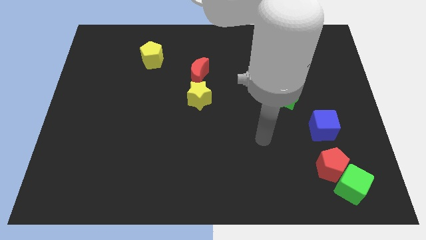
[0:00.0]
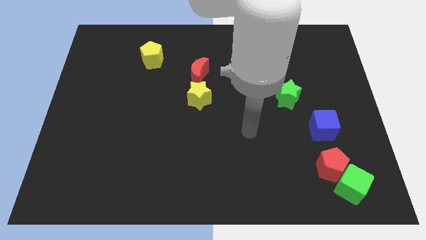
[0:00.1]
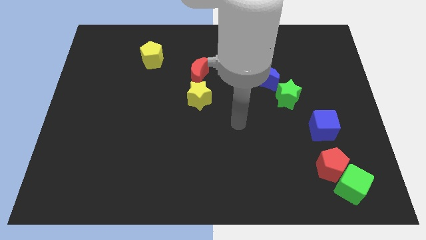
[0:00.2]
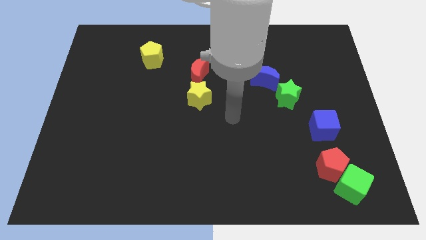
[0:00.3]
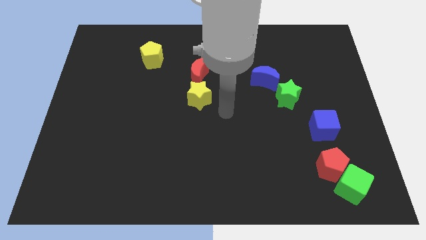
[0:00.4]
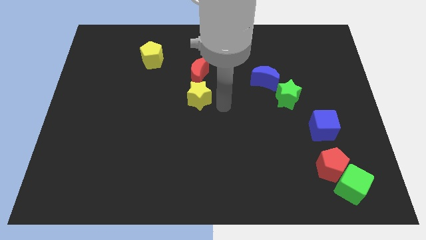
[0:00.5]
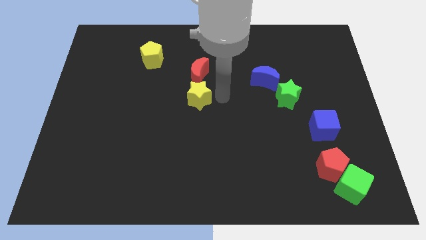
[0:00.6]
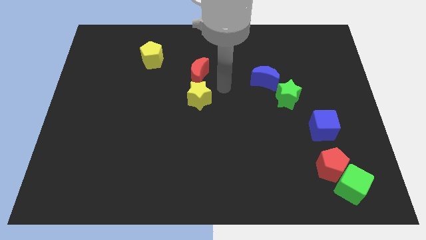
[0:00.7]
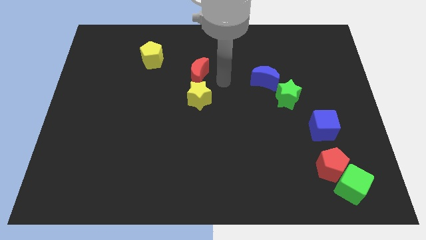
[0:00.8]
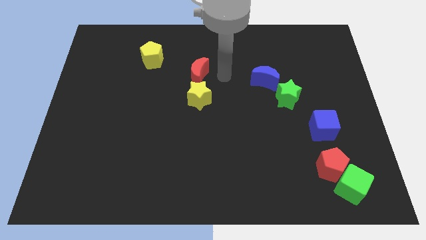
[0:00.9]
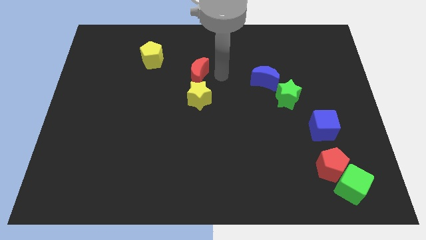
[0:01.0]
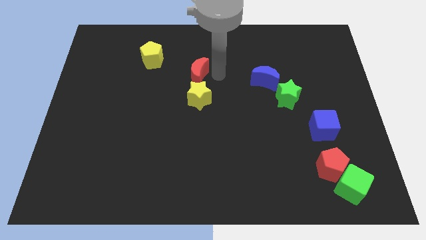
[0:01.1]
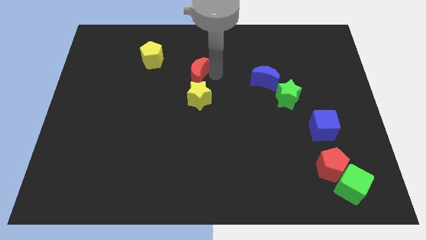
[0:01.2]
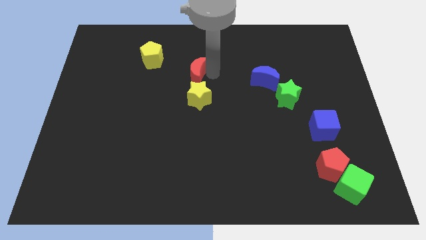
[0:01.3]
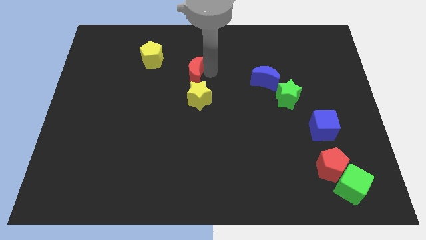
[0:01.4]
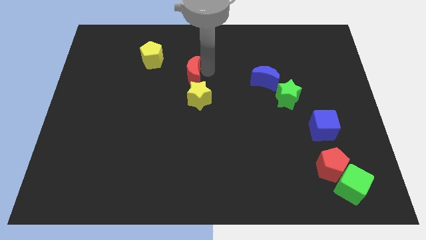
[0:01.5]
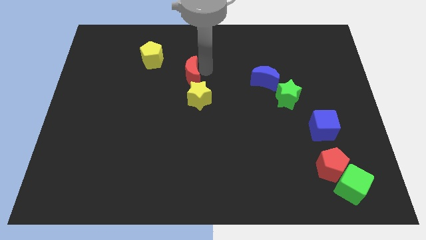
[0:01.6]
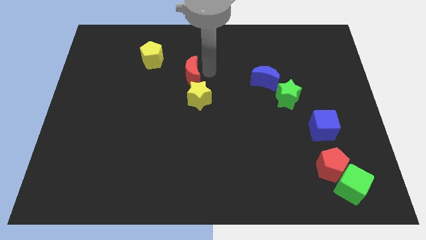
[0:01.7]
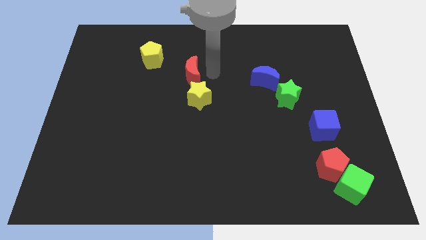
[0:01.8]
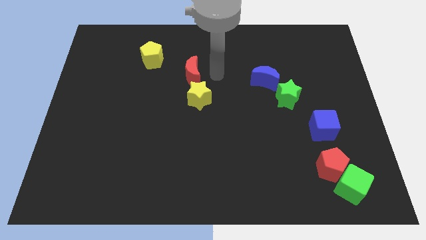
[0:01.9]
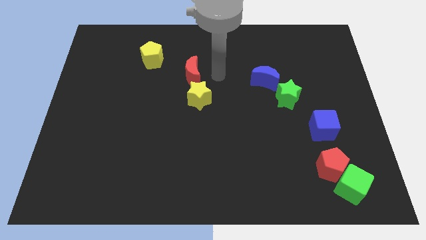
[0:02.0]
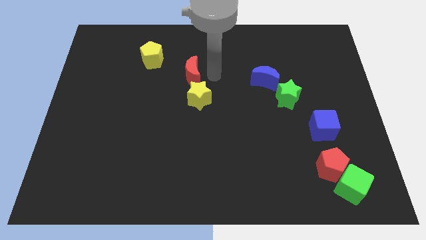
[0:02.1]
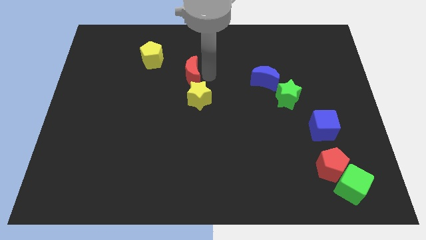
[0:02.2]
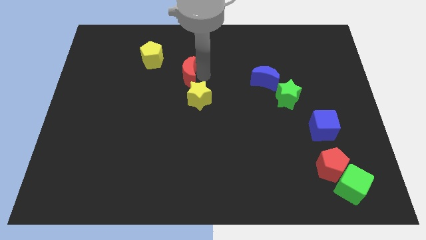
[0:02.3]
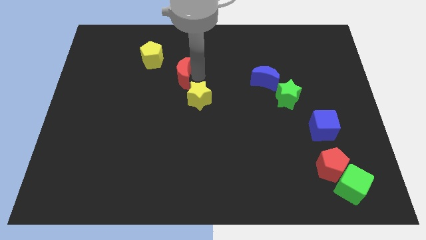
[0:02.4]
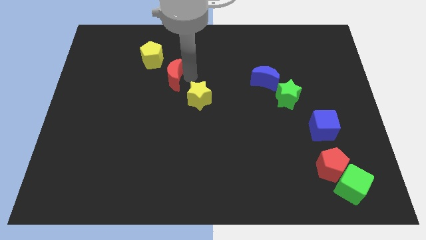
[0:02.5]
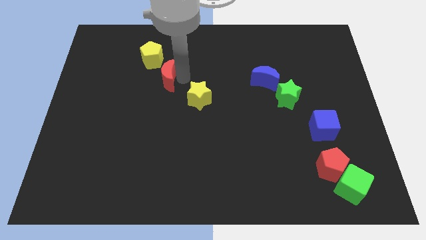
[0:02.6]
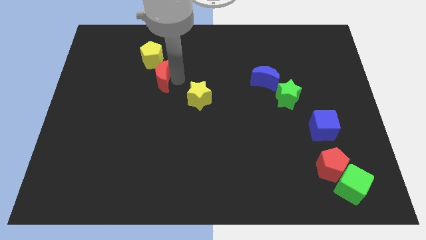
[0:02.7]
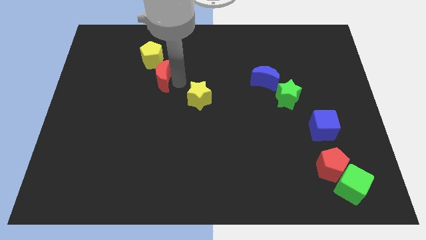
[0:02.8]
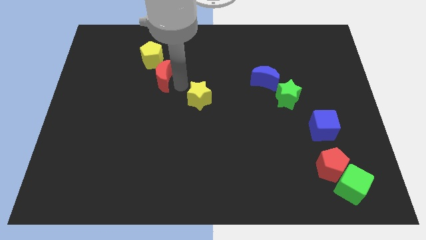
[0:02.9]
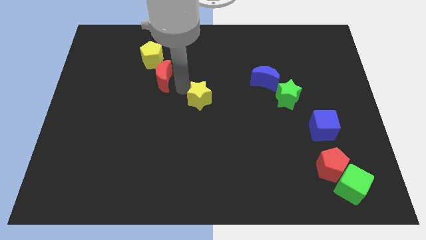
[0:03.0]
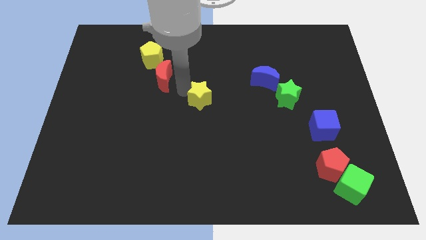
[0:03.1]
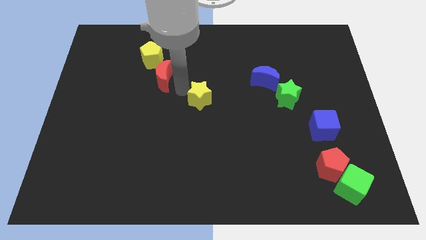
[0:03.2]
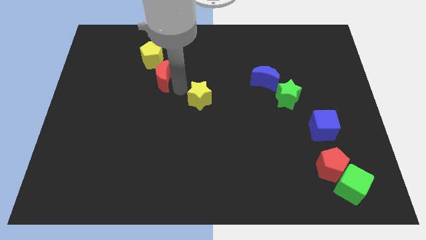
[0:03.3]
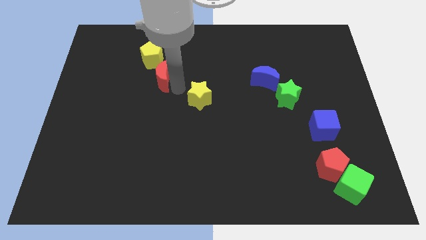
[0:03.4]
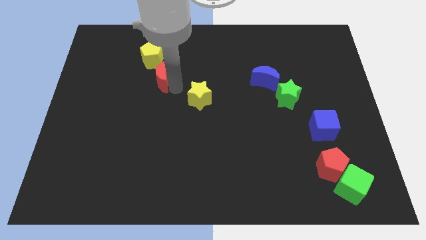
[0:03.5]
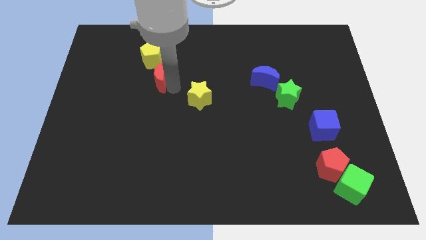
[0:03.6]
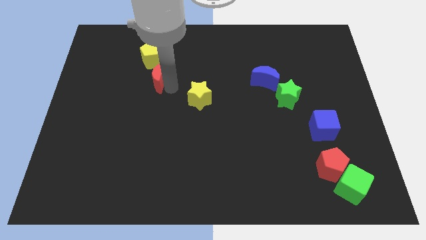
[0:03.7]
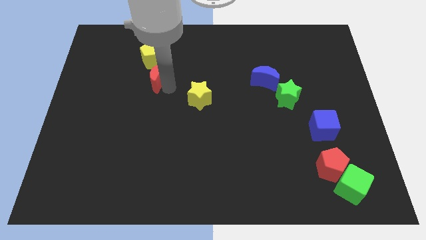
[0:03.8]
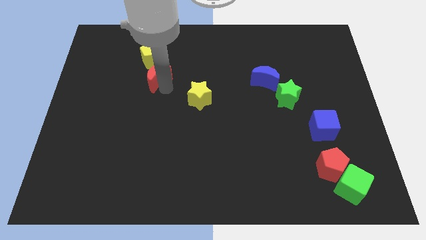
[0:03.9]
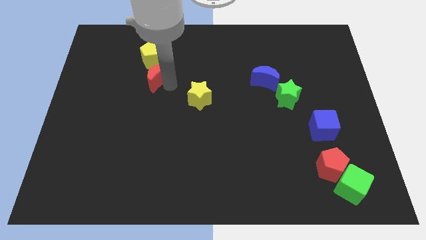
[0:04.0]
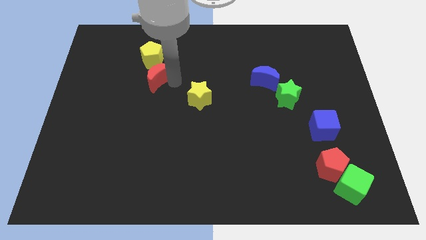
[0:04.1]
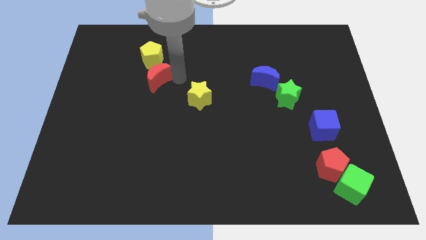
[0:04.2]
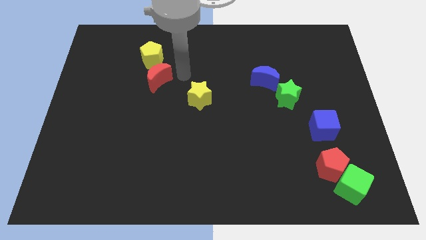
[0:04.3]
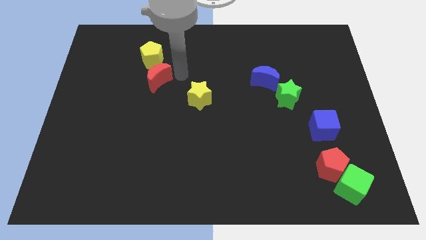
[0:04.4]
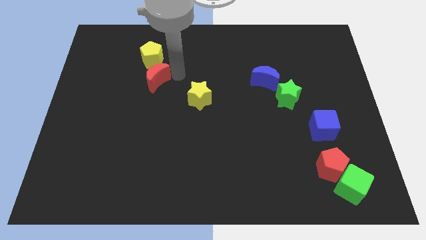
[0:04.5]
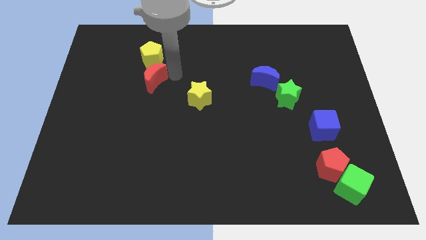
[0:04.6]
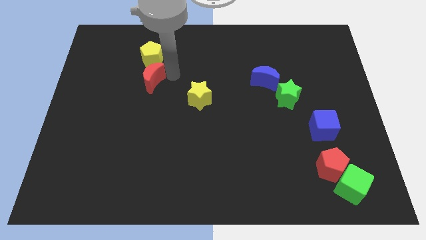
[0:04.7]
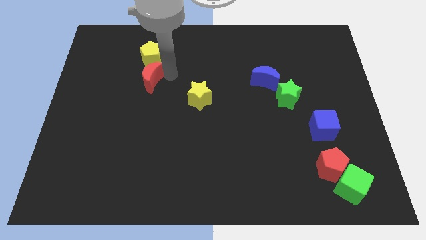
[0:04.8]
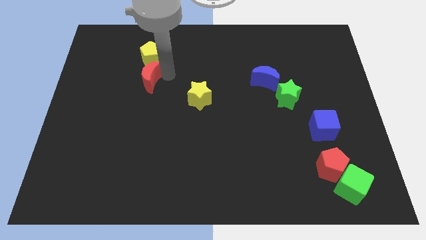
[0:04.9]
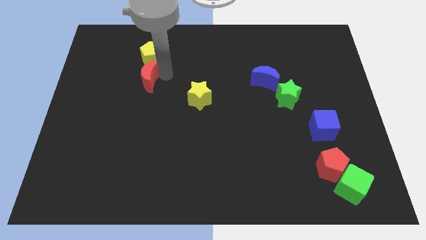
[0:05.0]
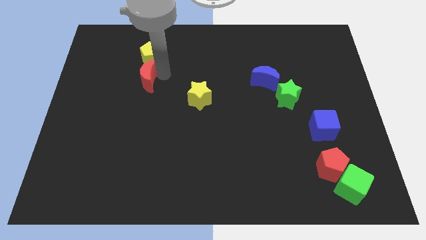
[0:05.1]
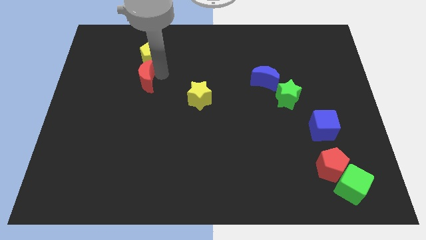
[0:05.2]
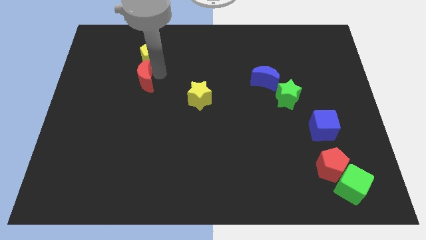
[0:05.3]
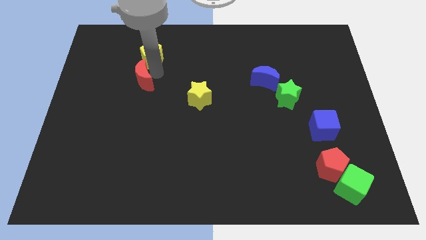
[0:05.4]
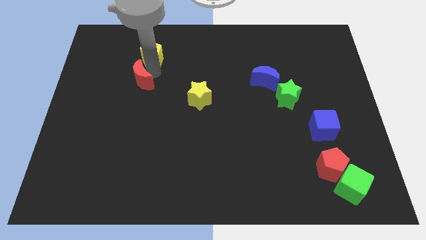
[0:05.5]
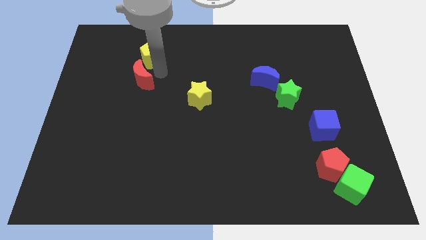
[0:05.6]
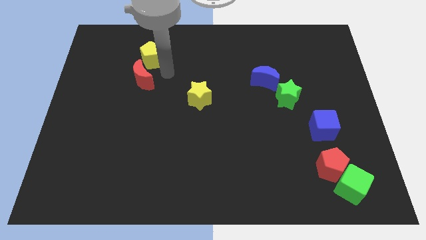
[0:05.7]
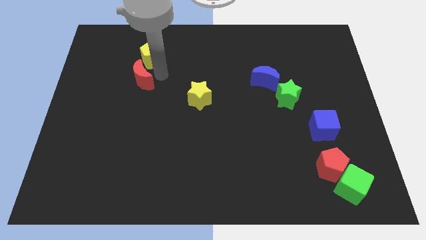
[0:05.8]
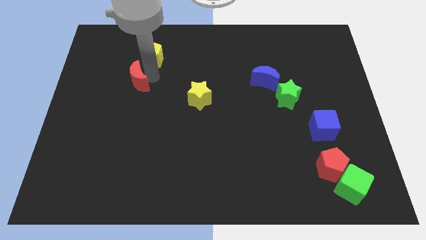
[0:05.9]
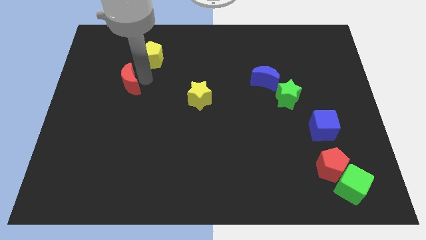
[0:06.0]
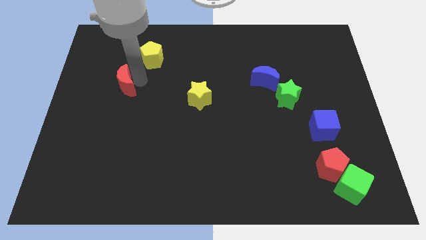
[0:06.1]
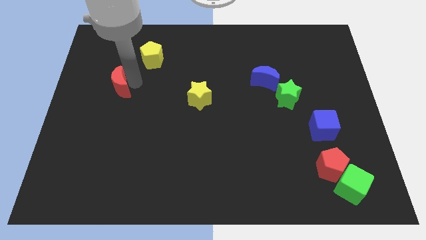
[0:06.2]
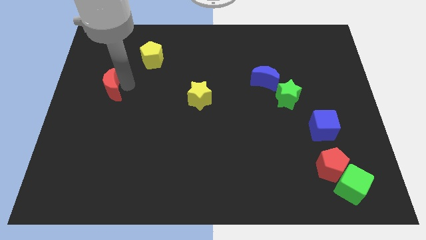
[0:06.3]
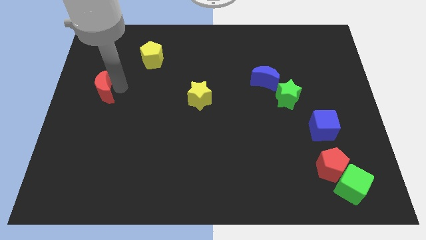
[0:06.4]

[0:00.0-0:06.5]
slide the red moon to the left side
